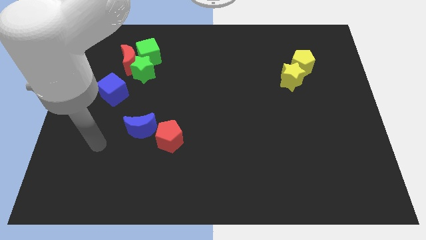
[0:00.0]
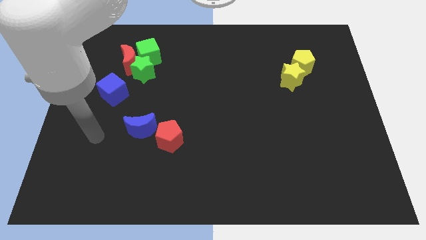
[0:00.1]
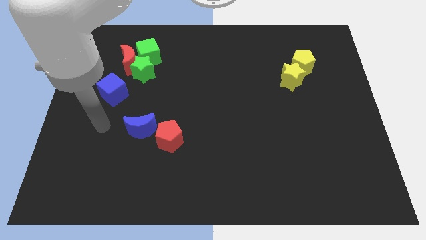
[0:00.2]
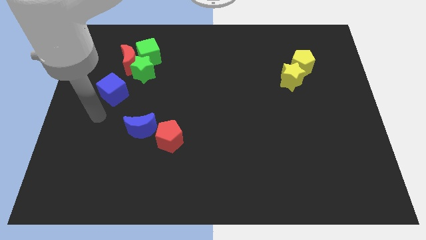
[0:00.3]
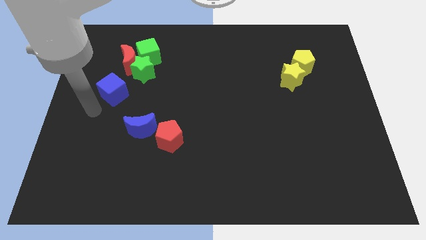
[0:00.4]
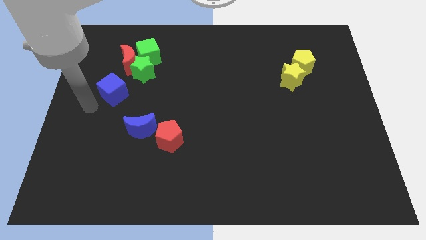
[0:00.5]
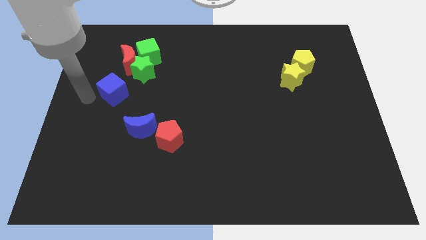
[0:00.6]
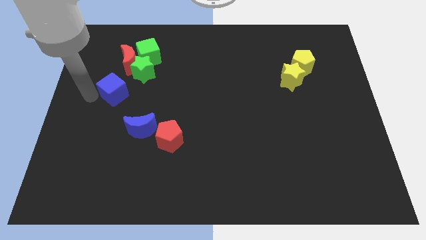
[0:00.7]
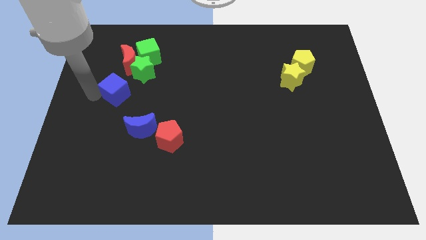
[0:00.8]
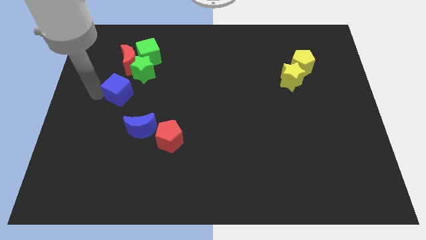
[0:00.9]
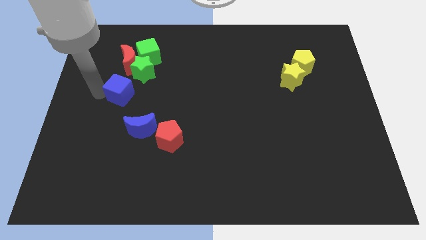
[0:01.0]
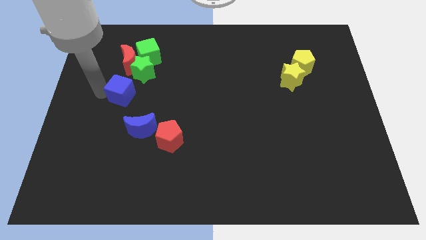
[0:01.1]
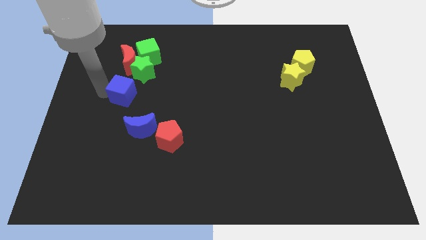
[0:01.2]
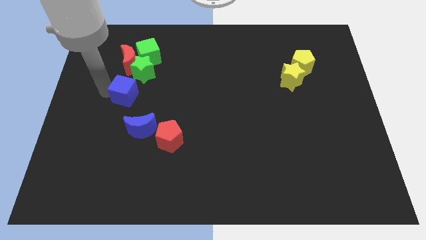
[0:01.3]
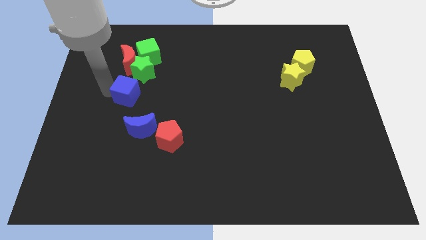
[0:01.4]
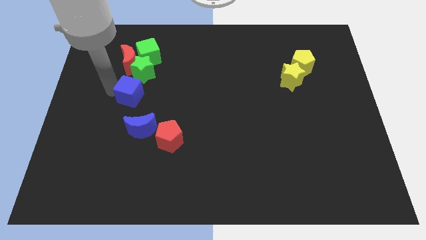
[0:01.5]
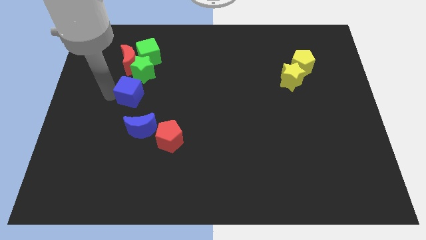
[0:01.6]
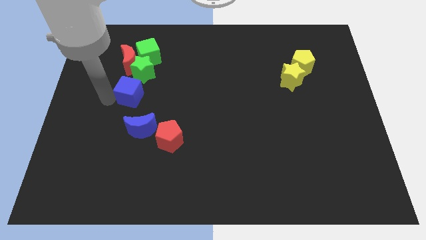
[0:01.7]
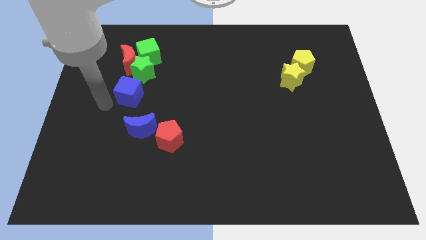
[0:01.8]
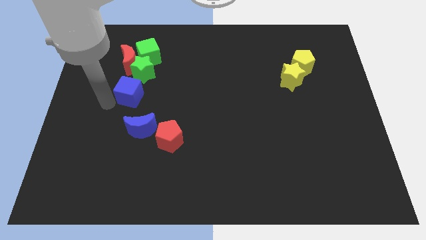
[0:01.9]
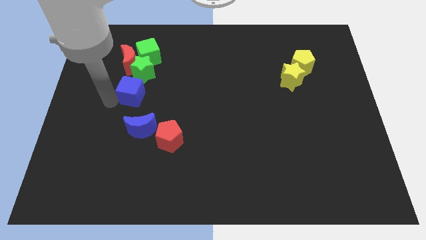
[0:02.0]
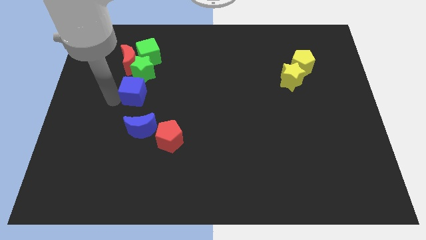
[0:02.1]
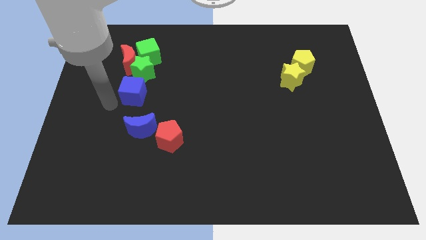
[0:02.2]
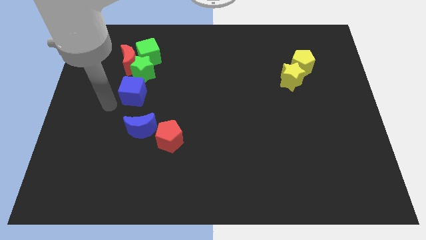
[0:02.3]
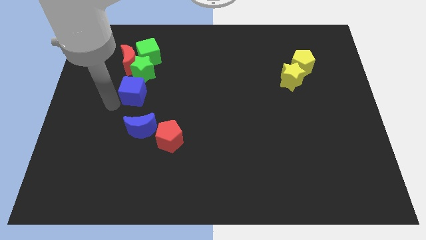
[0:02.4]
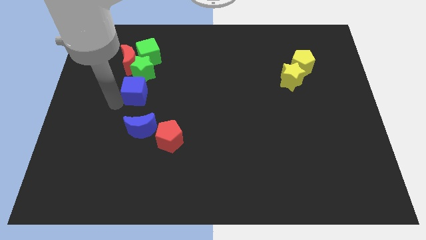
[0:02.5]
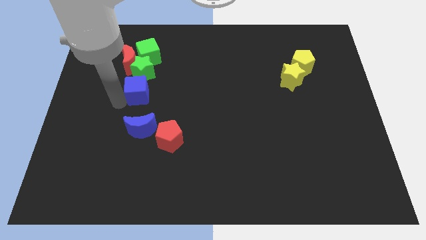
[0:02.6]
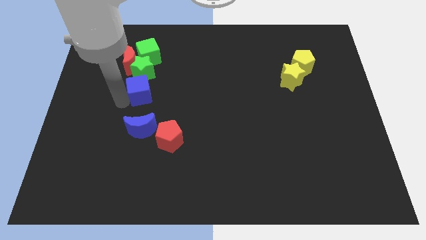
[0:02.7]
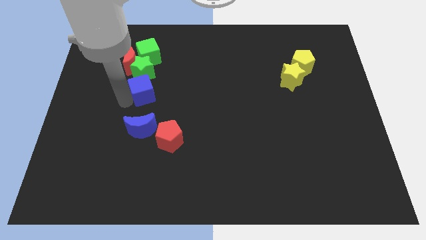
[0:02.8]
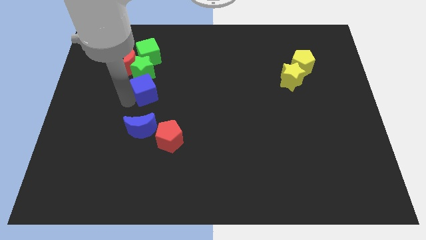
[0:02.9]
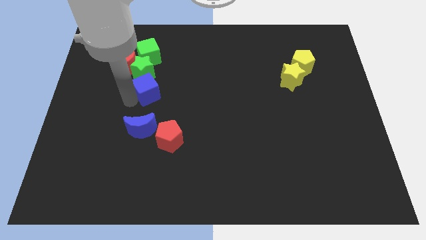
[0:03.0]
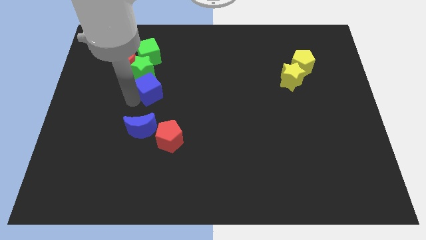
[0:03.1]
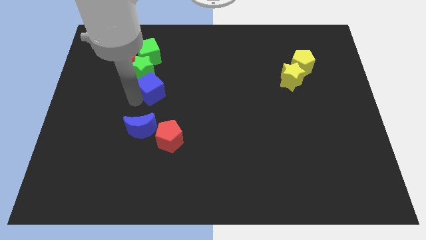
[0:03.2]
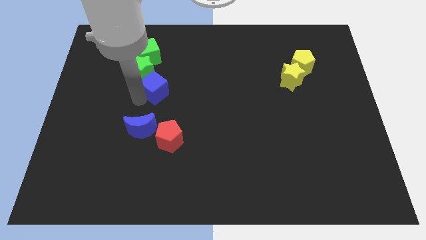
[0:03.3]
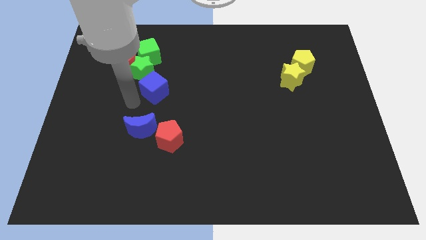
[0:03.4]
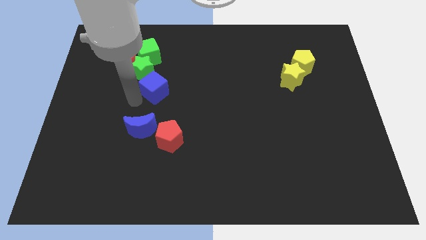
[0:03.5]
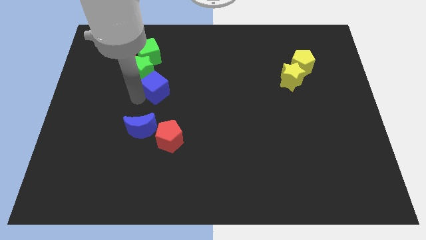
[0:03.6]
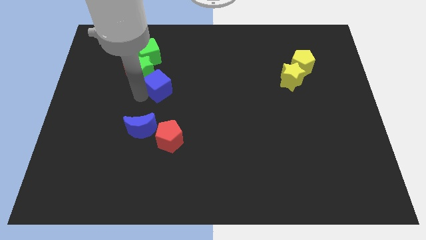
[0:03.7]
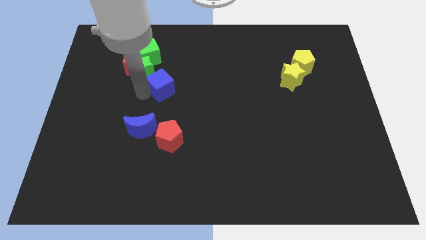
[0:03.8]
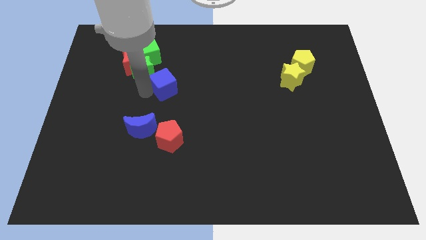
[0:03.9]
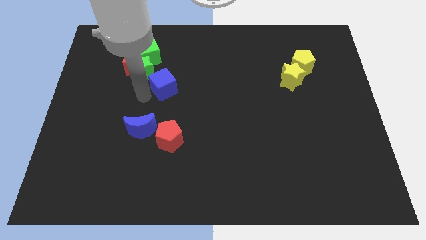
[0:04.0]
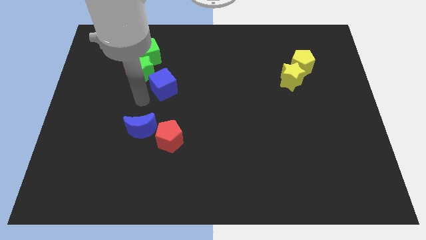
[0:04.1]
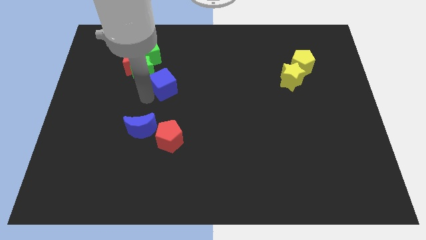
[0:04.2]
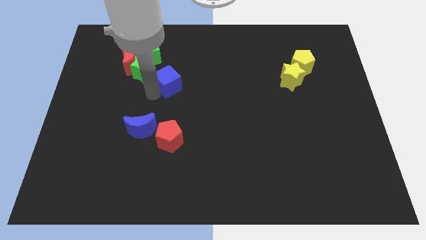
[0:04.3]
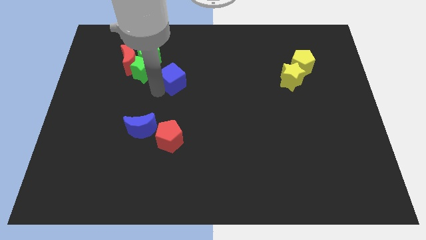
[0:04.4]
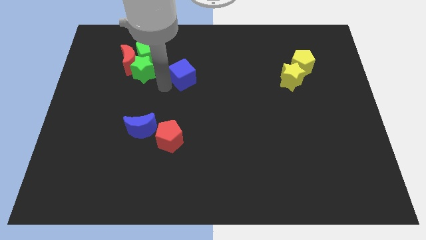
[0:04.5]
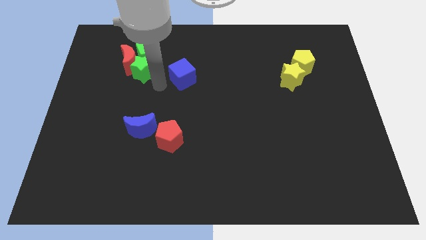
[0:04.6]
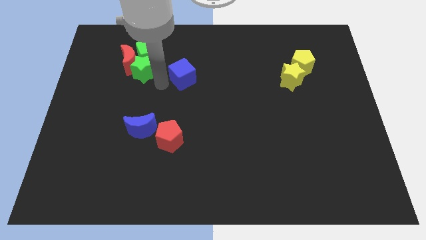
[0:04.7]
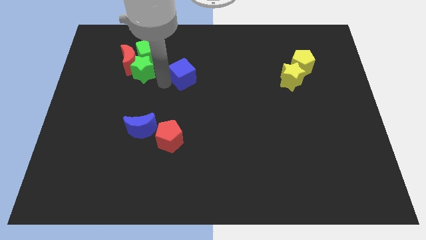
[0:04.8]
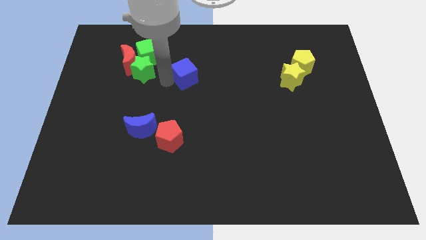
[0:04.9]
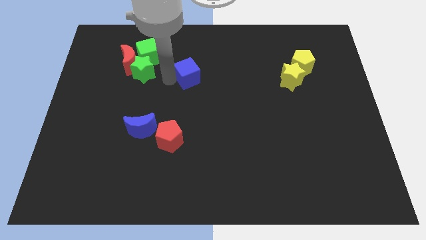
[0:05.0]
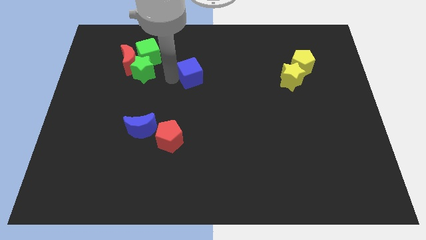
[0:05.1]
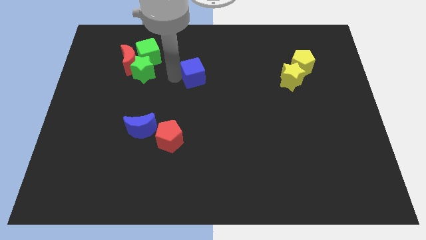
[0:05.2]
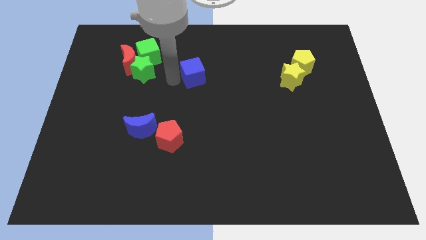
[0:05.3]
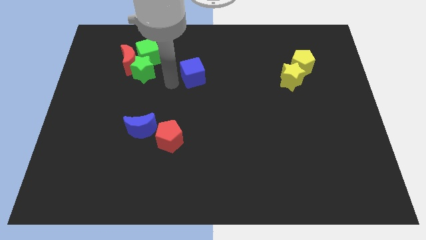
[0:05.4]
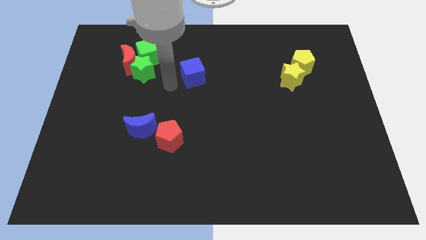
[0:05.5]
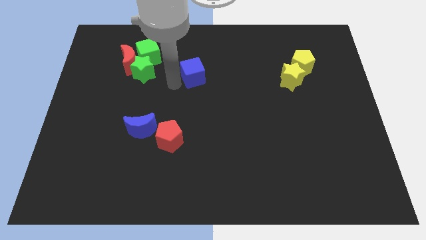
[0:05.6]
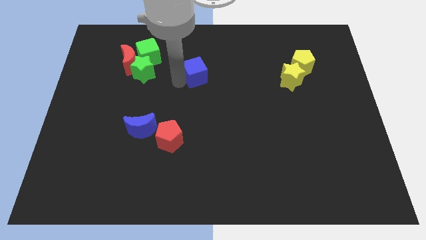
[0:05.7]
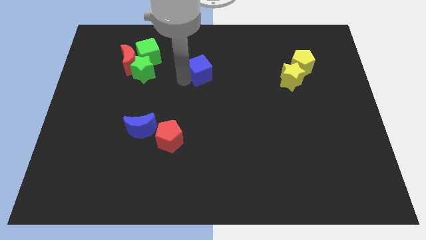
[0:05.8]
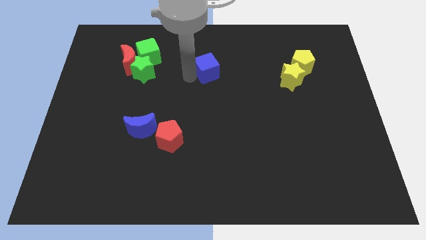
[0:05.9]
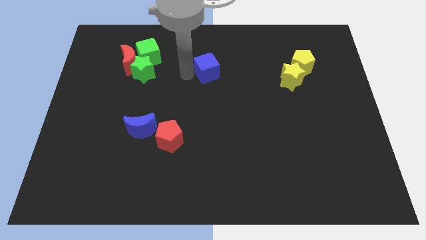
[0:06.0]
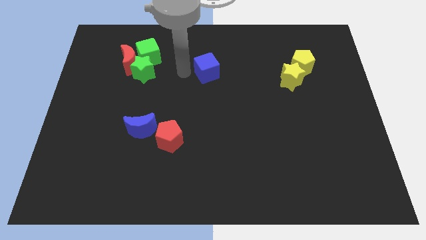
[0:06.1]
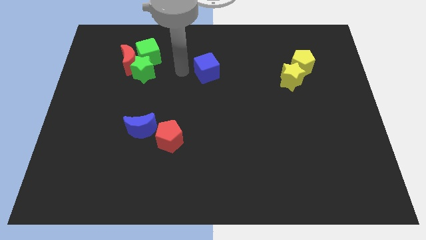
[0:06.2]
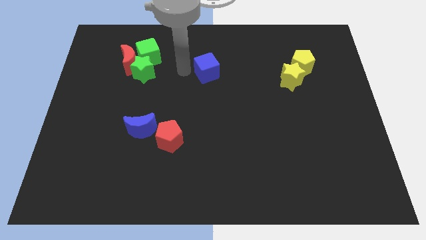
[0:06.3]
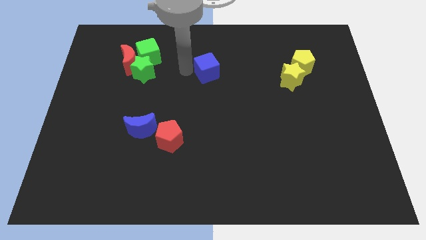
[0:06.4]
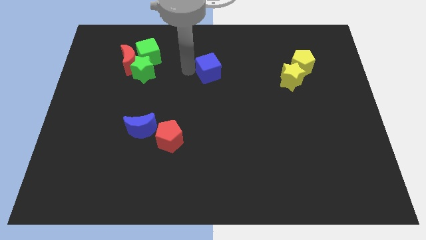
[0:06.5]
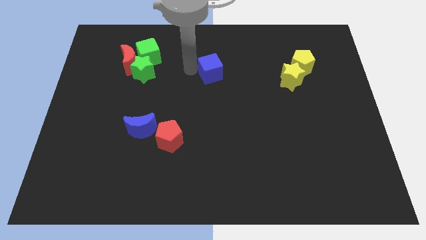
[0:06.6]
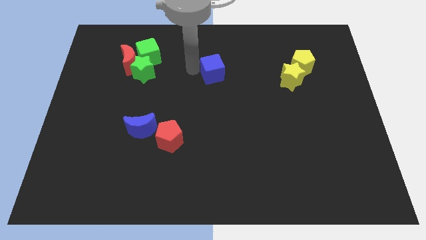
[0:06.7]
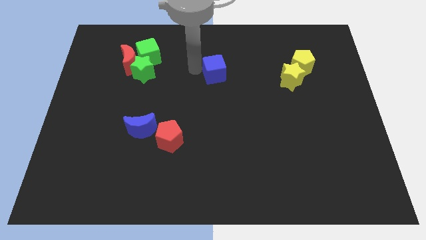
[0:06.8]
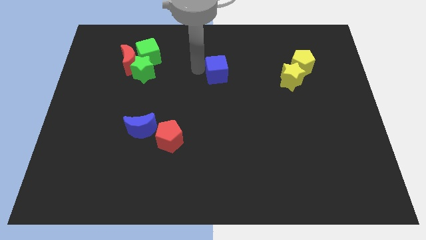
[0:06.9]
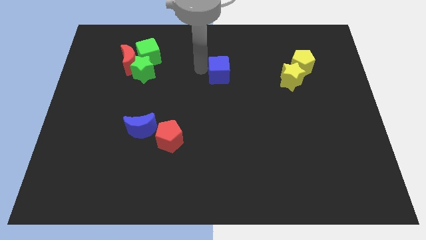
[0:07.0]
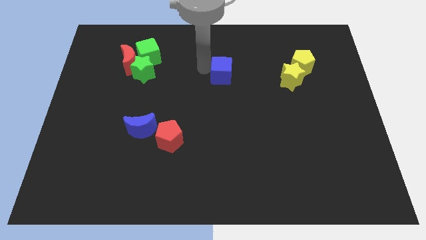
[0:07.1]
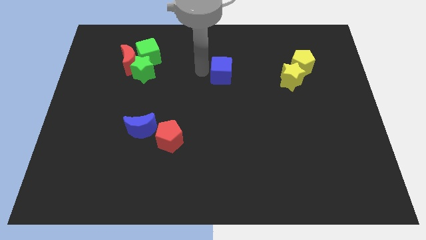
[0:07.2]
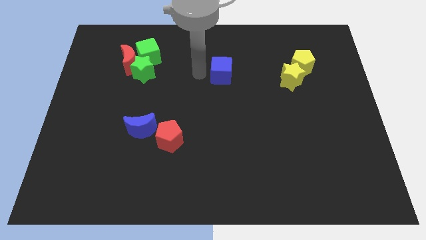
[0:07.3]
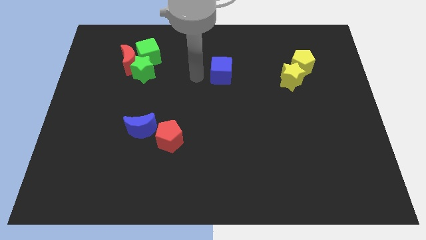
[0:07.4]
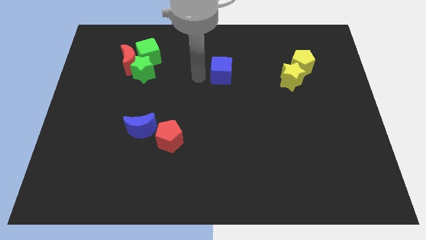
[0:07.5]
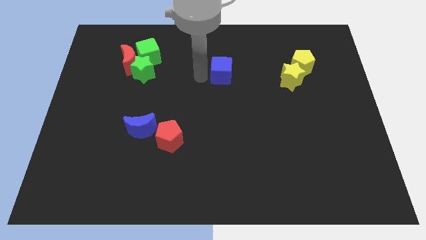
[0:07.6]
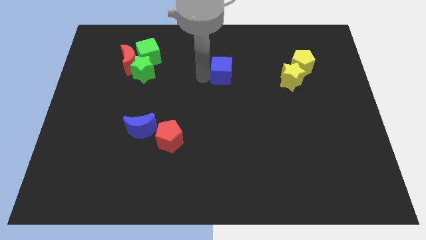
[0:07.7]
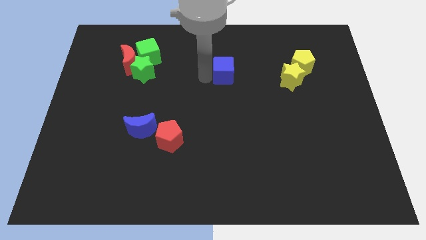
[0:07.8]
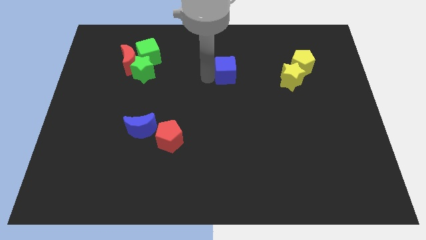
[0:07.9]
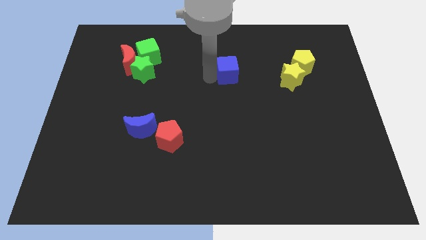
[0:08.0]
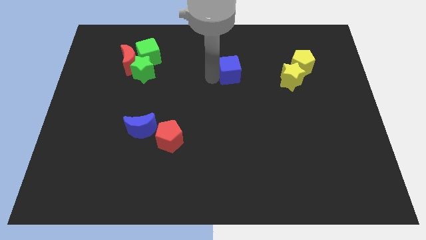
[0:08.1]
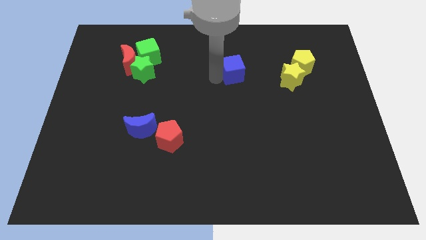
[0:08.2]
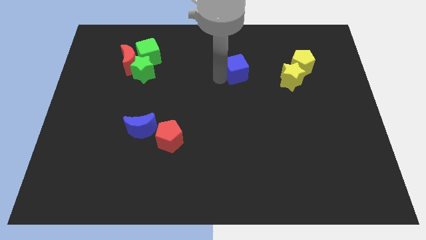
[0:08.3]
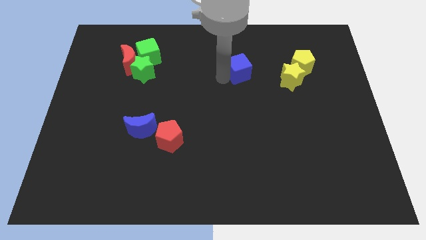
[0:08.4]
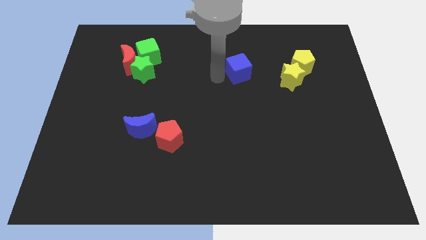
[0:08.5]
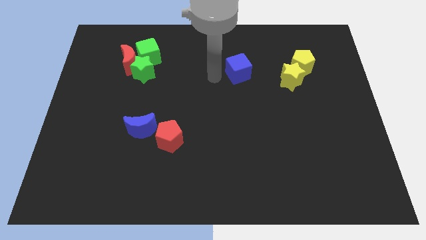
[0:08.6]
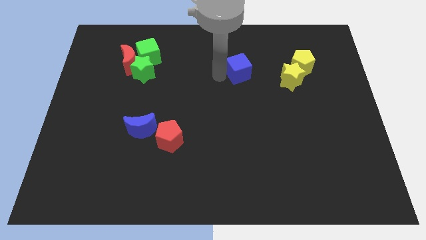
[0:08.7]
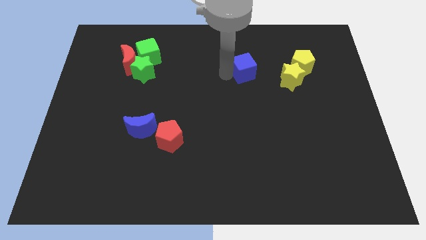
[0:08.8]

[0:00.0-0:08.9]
move the blue cube to the left side of the yellow pentagon
